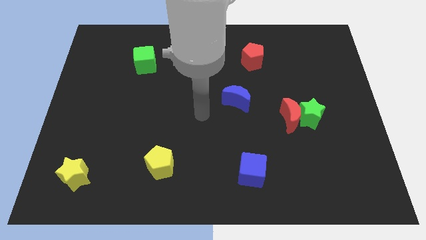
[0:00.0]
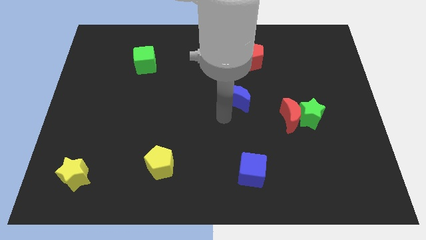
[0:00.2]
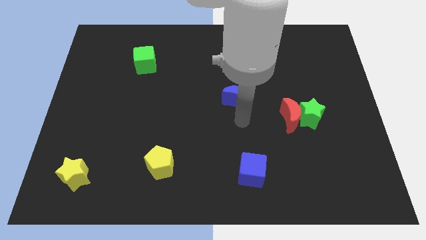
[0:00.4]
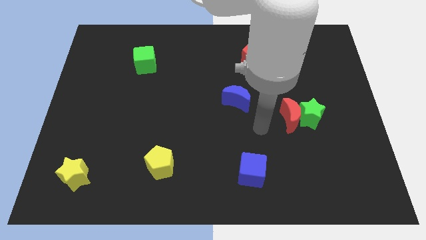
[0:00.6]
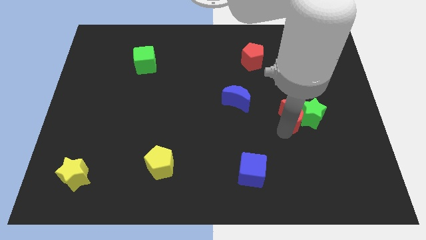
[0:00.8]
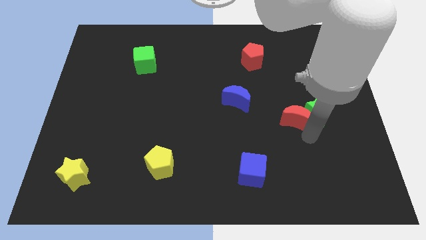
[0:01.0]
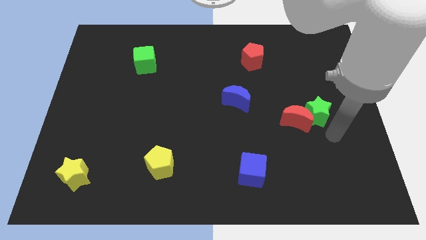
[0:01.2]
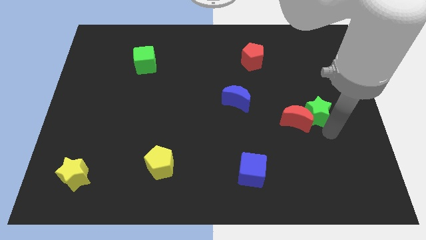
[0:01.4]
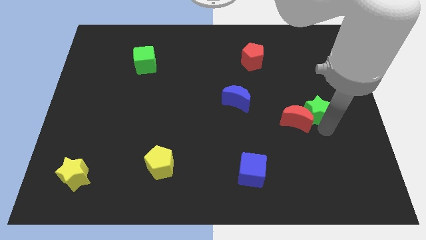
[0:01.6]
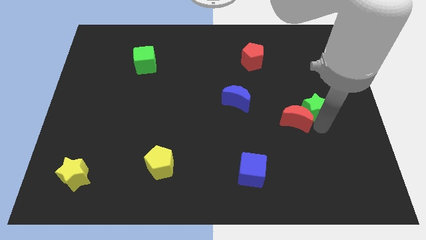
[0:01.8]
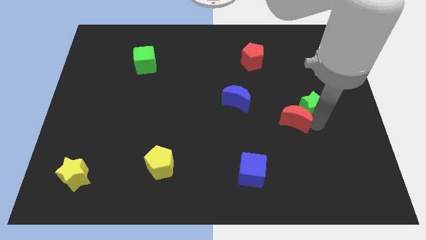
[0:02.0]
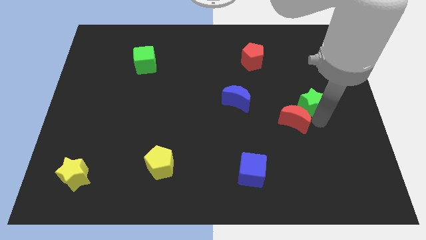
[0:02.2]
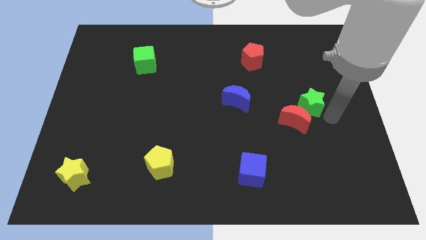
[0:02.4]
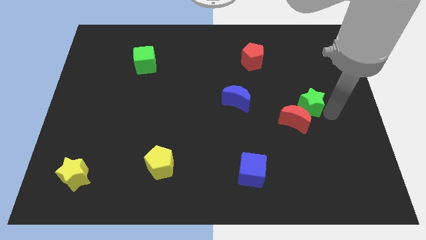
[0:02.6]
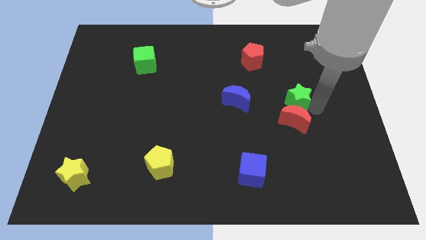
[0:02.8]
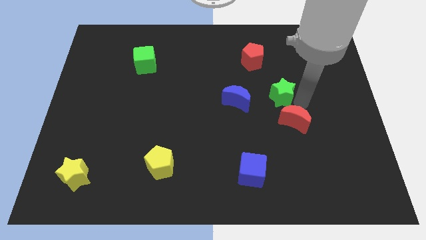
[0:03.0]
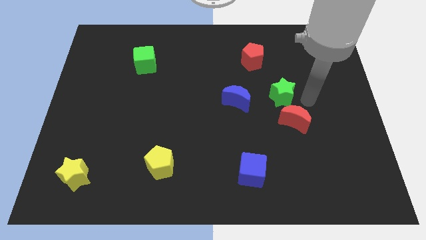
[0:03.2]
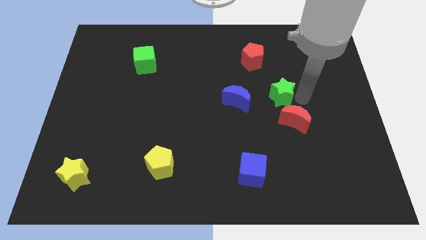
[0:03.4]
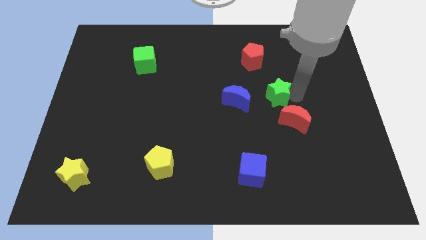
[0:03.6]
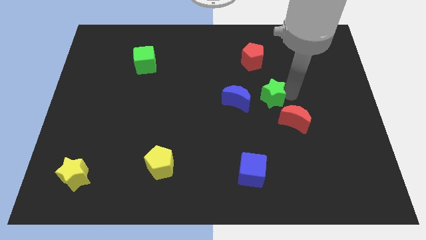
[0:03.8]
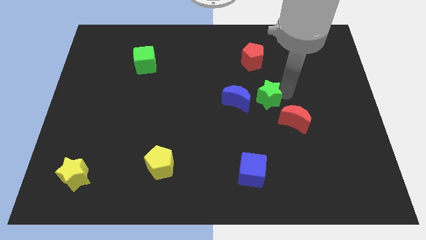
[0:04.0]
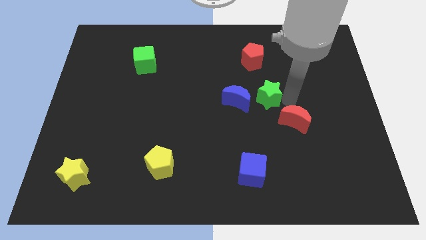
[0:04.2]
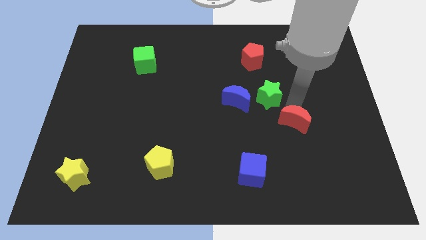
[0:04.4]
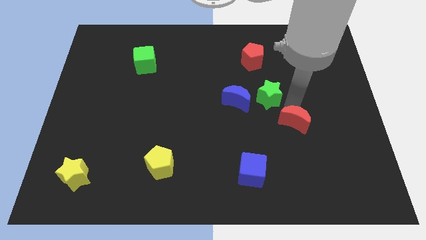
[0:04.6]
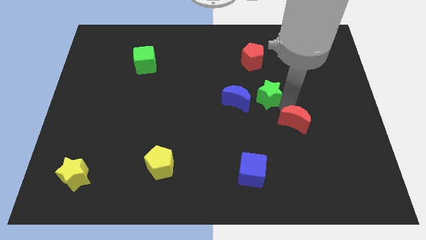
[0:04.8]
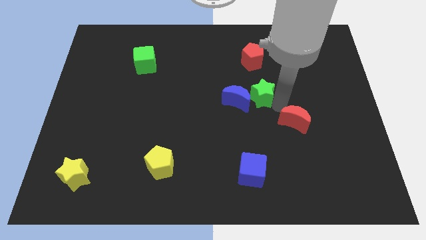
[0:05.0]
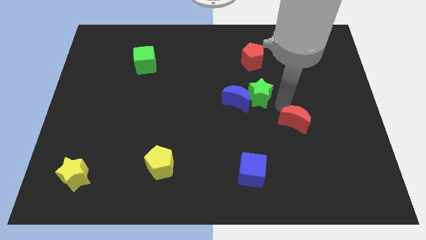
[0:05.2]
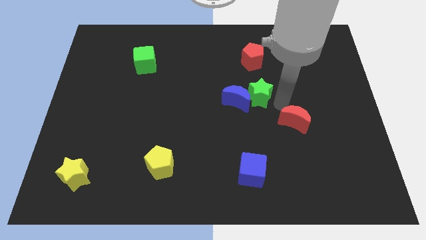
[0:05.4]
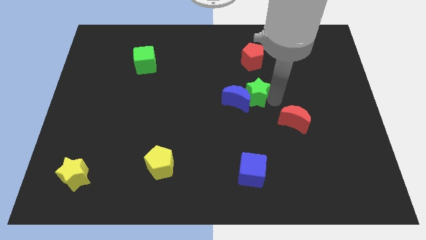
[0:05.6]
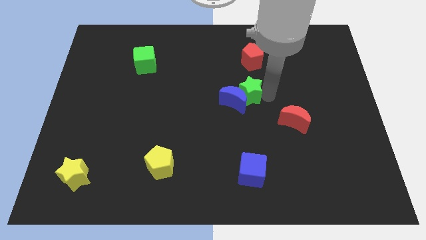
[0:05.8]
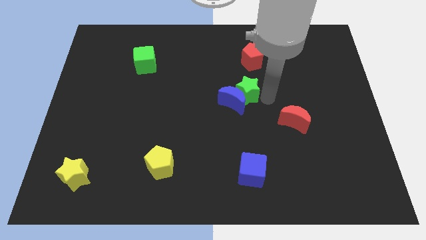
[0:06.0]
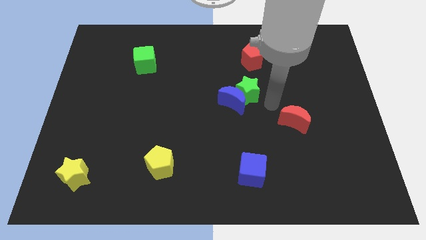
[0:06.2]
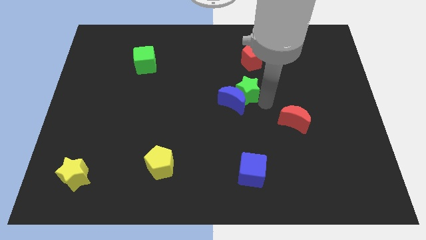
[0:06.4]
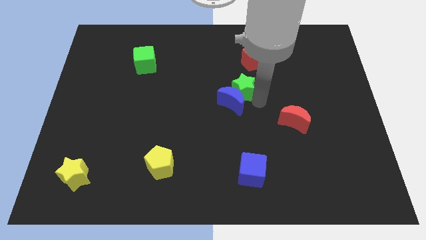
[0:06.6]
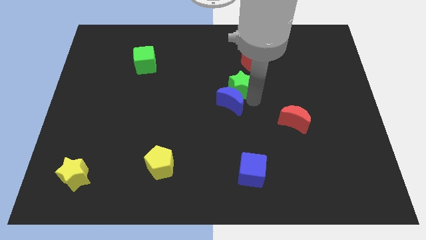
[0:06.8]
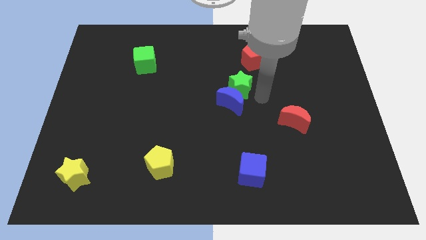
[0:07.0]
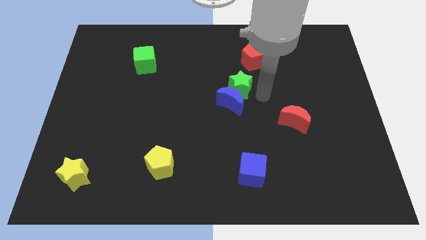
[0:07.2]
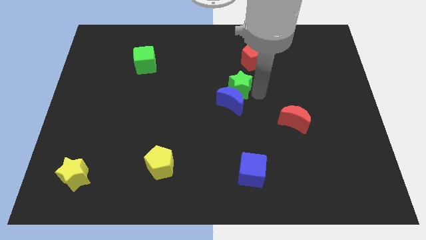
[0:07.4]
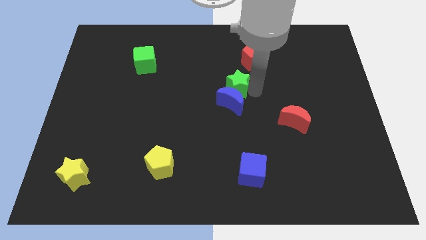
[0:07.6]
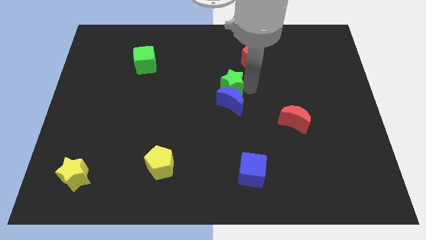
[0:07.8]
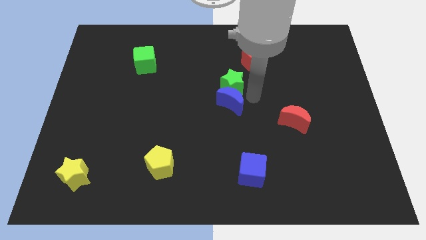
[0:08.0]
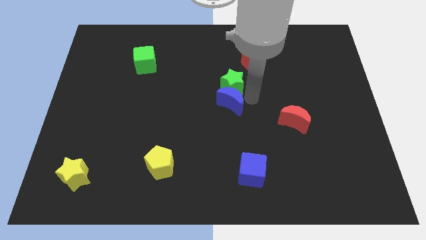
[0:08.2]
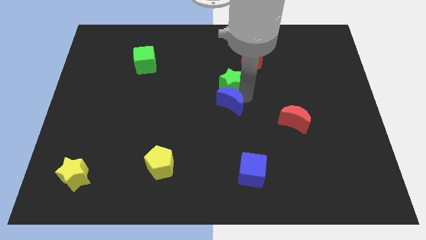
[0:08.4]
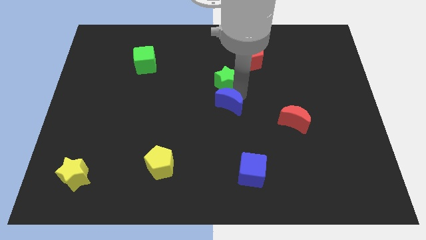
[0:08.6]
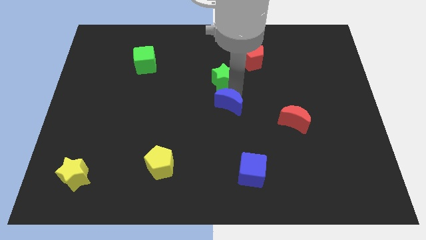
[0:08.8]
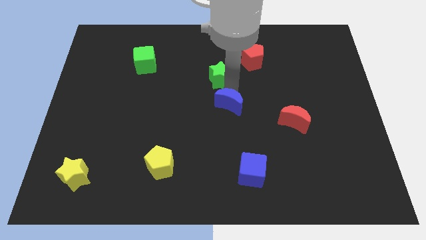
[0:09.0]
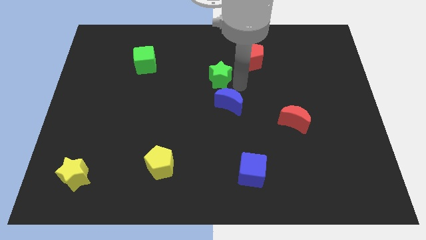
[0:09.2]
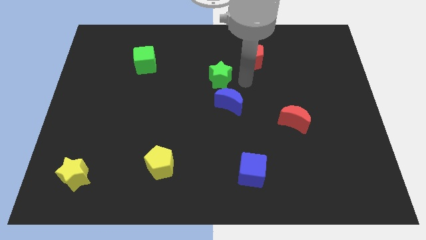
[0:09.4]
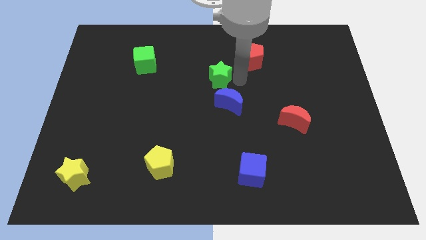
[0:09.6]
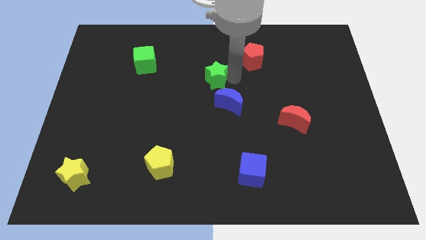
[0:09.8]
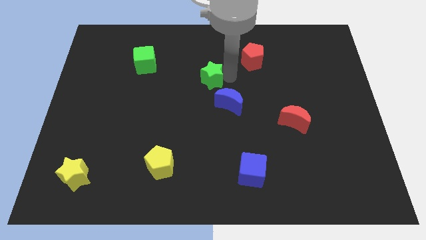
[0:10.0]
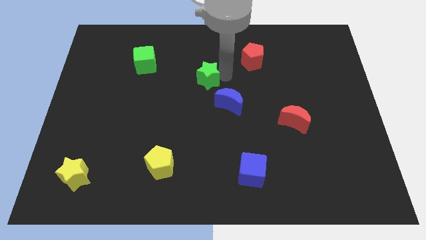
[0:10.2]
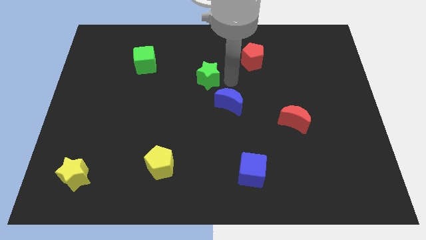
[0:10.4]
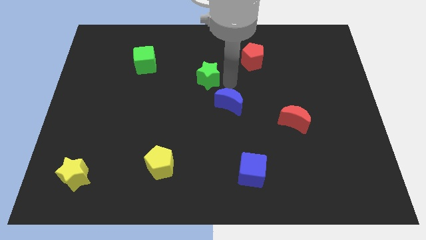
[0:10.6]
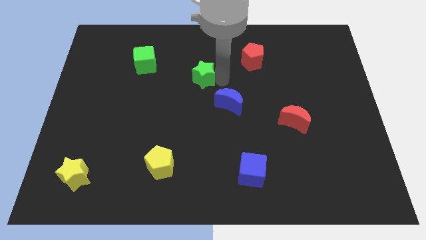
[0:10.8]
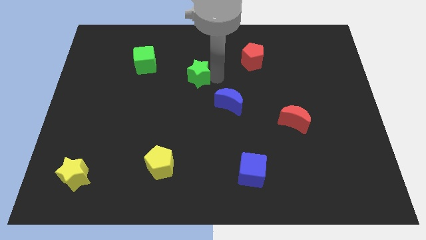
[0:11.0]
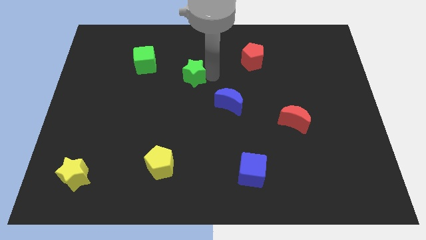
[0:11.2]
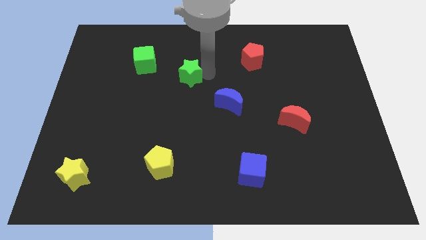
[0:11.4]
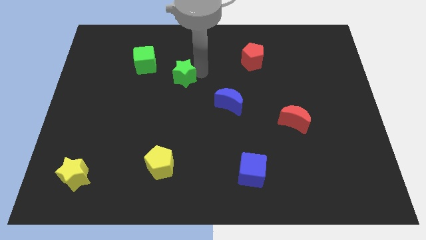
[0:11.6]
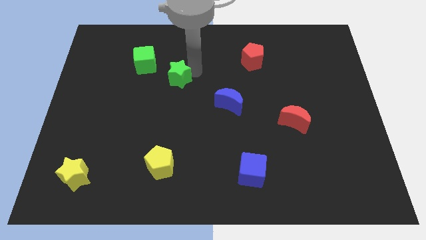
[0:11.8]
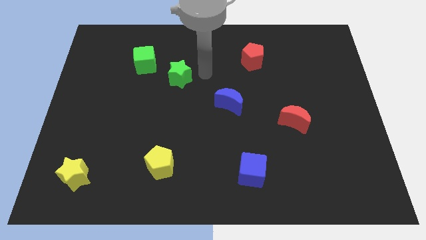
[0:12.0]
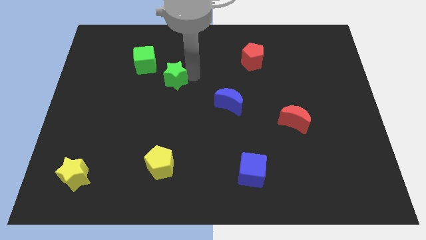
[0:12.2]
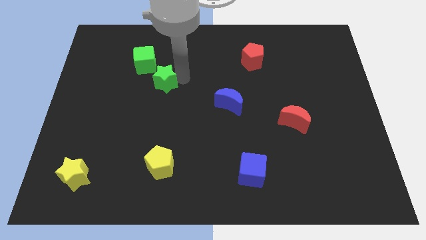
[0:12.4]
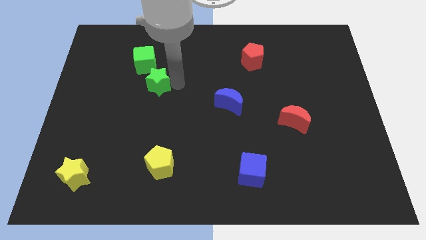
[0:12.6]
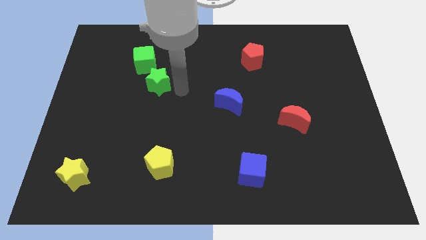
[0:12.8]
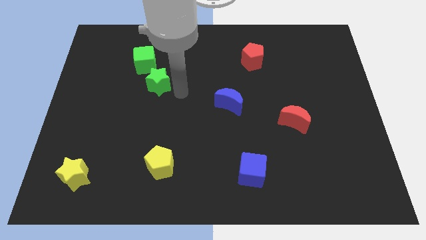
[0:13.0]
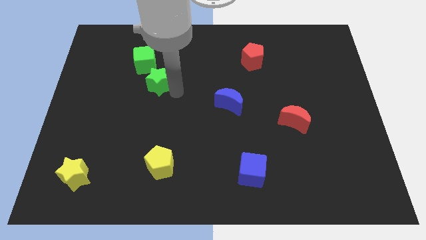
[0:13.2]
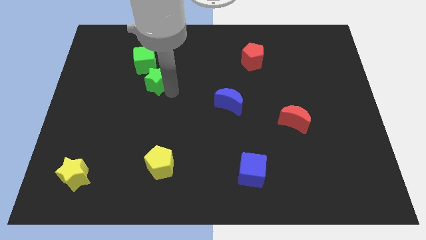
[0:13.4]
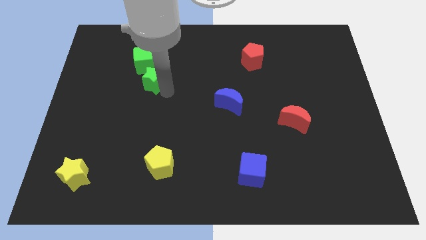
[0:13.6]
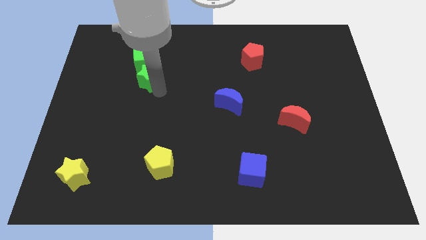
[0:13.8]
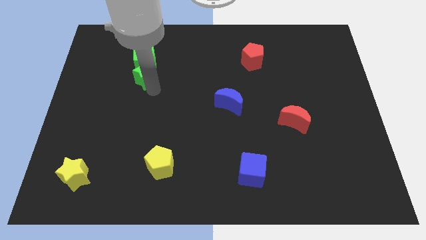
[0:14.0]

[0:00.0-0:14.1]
put the green star to the bottom left of the green cube

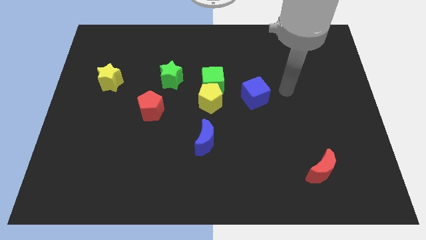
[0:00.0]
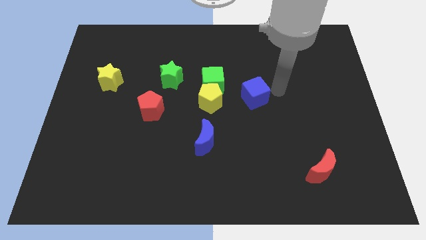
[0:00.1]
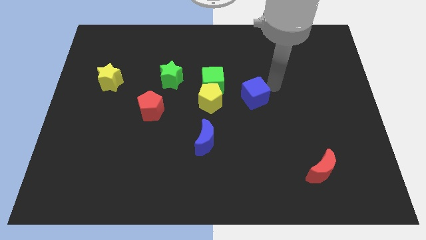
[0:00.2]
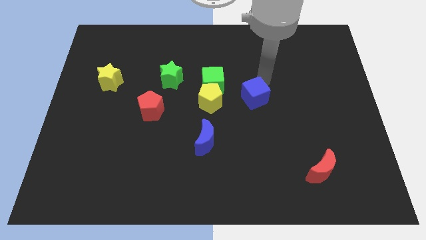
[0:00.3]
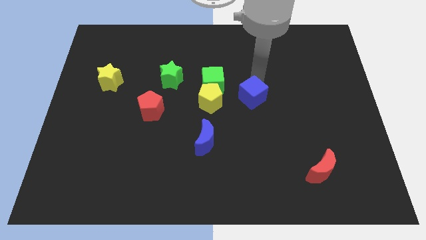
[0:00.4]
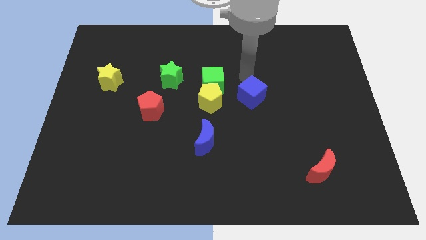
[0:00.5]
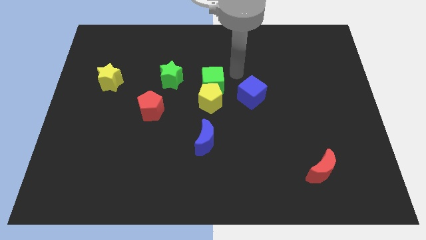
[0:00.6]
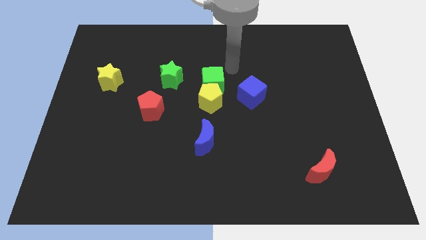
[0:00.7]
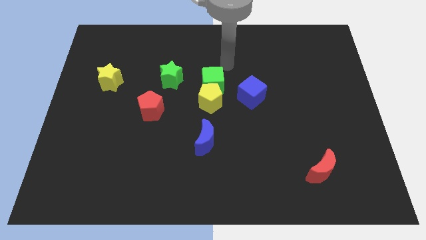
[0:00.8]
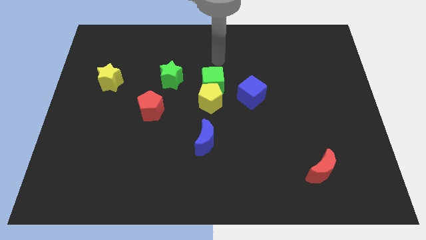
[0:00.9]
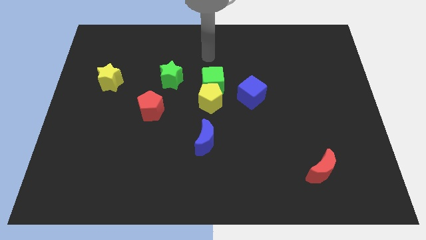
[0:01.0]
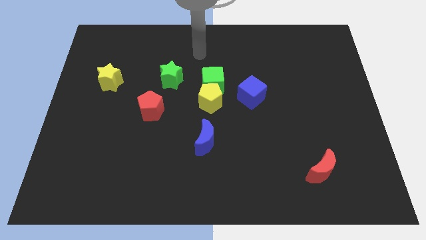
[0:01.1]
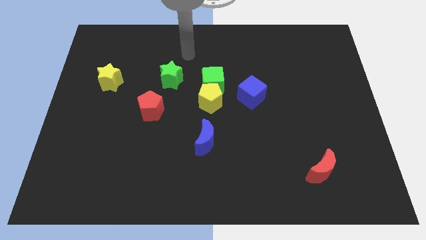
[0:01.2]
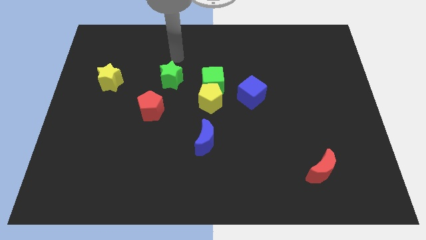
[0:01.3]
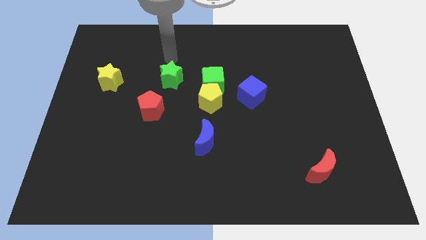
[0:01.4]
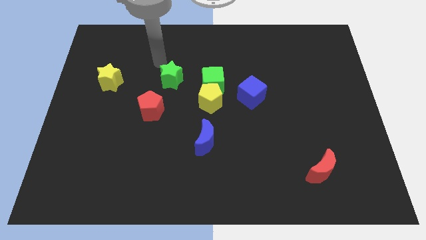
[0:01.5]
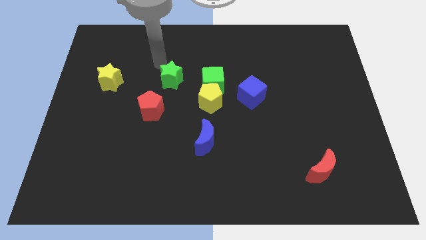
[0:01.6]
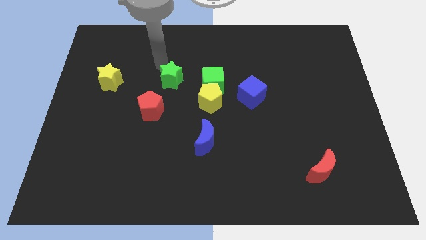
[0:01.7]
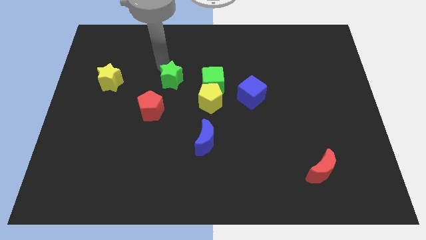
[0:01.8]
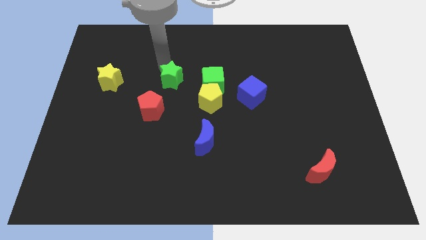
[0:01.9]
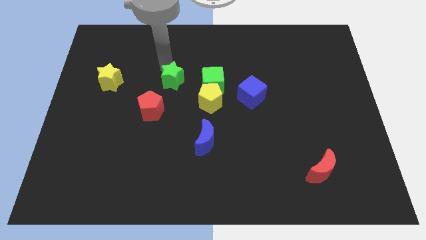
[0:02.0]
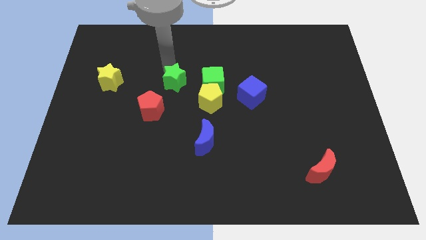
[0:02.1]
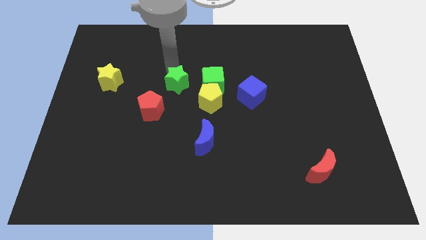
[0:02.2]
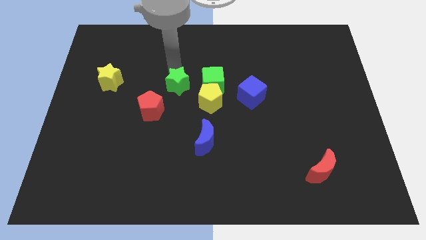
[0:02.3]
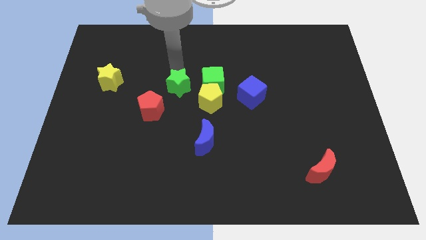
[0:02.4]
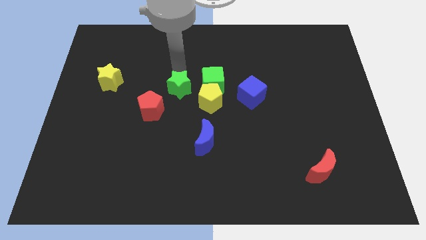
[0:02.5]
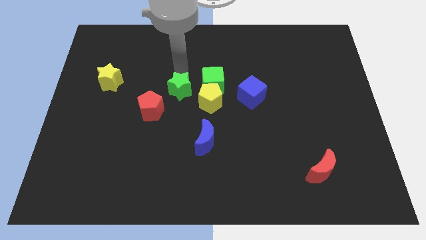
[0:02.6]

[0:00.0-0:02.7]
move the green star to the bottom left of the green cube
